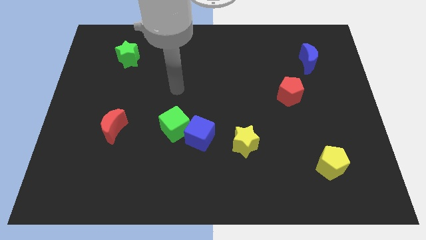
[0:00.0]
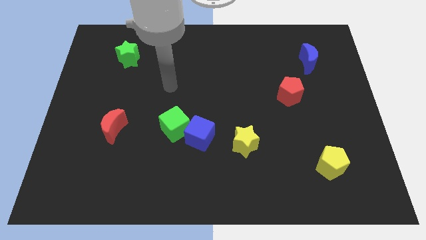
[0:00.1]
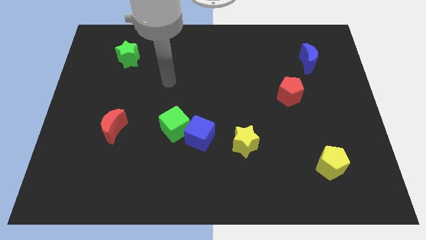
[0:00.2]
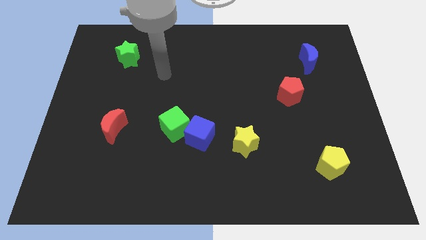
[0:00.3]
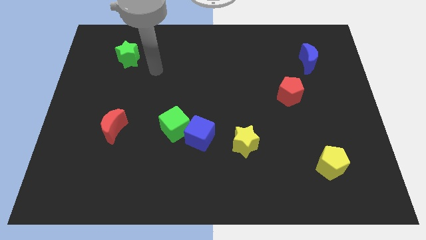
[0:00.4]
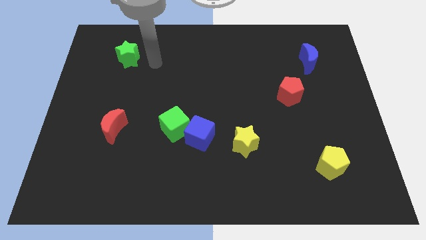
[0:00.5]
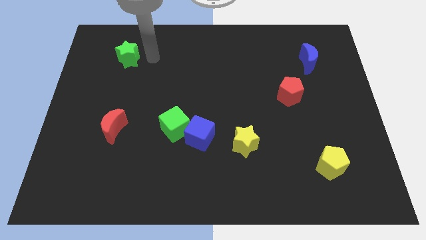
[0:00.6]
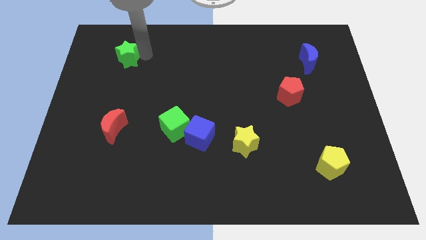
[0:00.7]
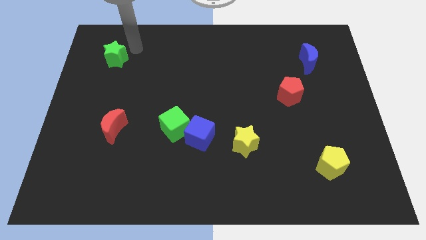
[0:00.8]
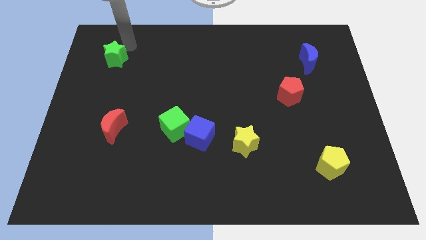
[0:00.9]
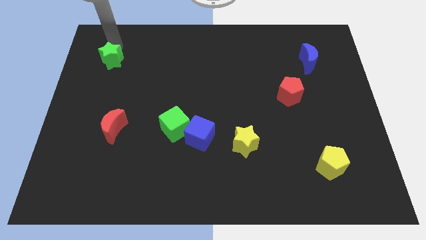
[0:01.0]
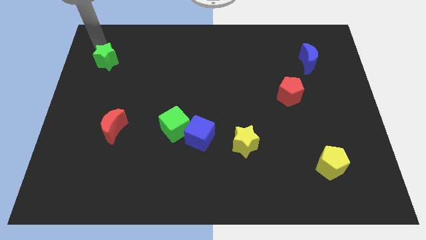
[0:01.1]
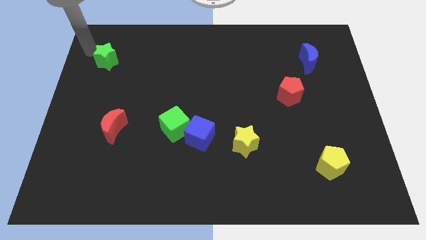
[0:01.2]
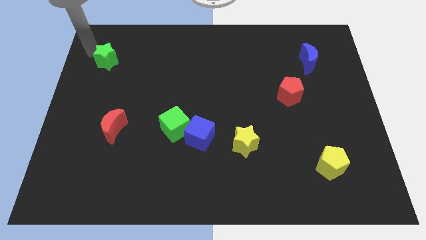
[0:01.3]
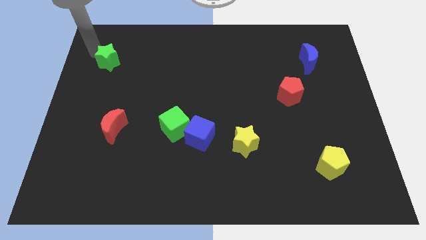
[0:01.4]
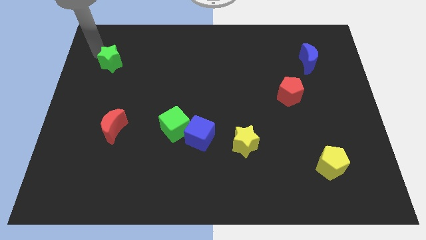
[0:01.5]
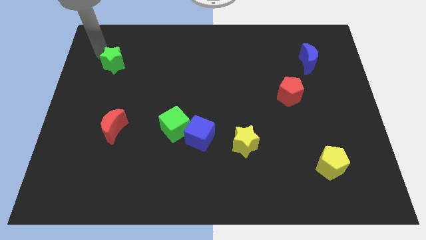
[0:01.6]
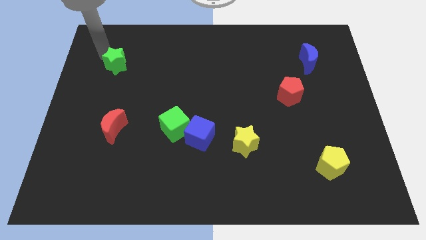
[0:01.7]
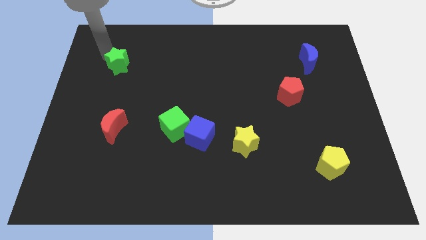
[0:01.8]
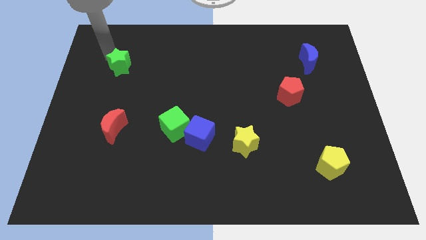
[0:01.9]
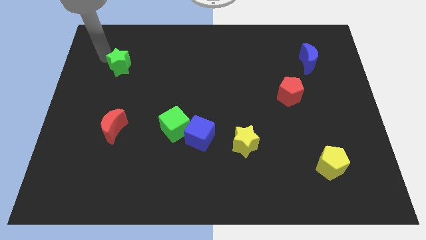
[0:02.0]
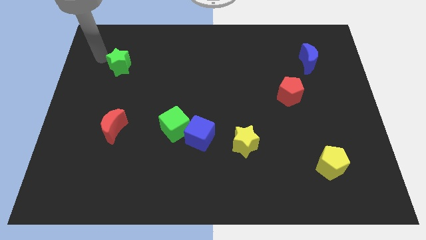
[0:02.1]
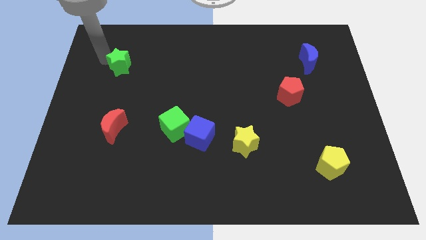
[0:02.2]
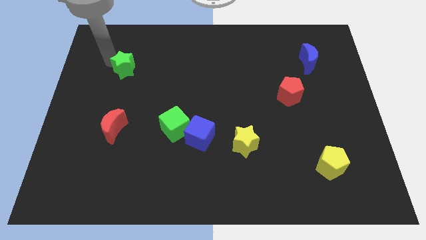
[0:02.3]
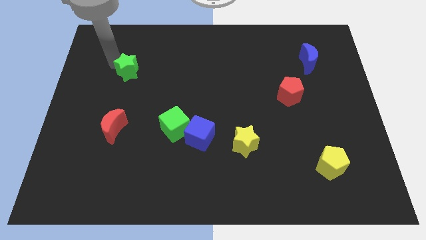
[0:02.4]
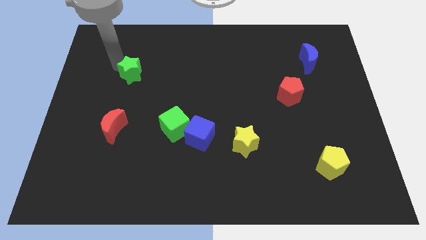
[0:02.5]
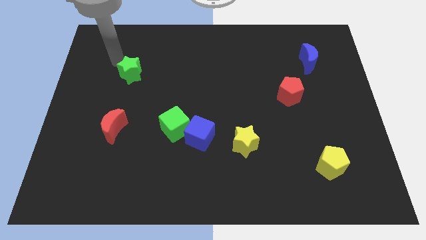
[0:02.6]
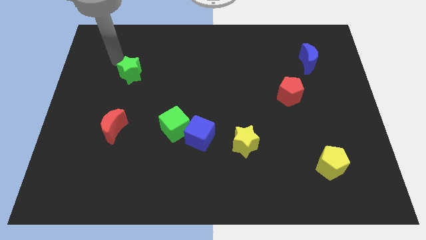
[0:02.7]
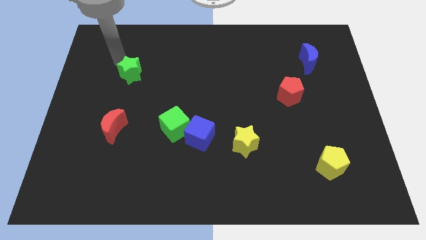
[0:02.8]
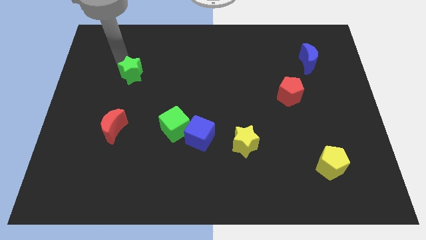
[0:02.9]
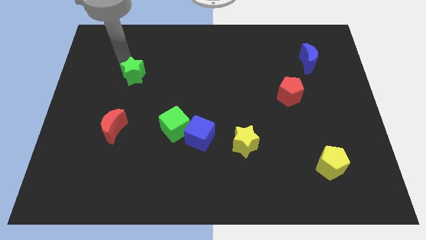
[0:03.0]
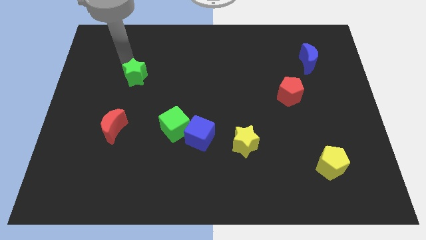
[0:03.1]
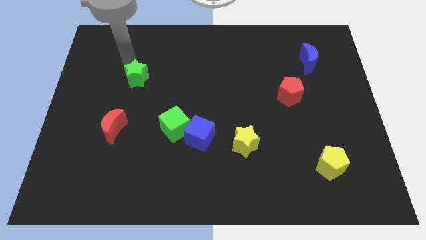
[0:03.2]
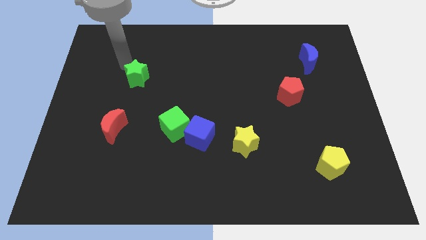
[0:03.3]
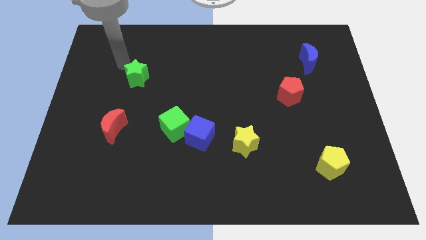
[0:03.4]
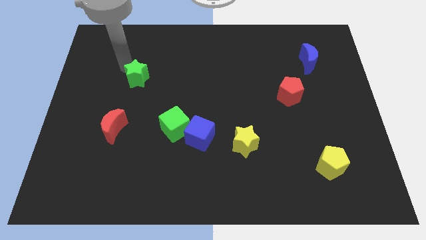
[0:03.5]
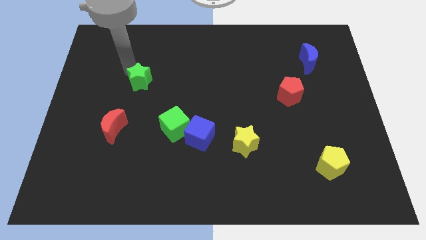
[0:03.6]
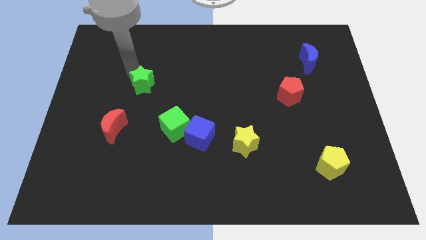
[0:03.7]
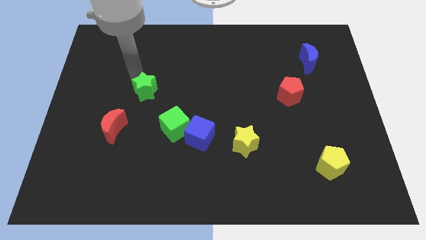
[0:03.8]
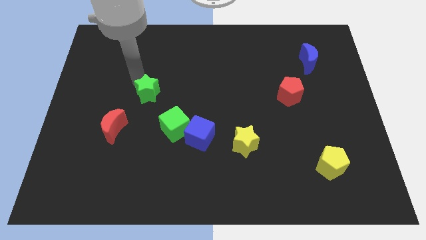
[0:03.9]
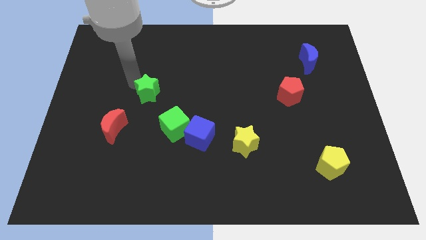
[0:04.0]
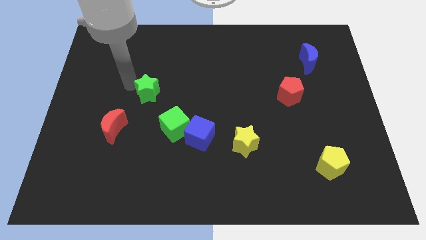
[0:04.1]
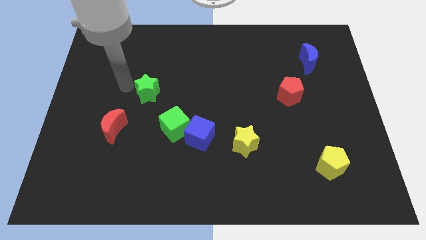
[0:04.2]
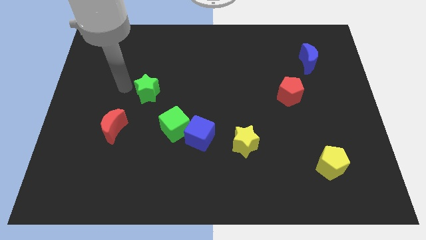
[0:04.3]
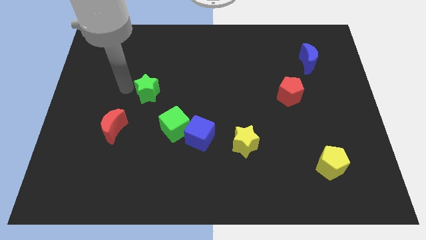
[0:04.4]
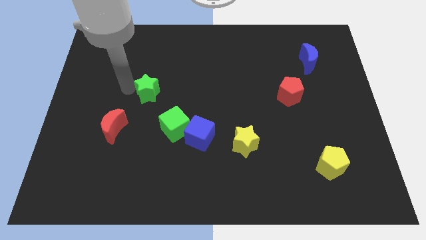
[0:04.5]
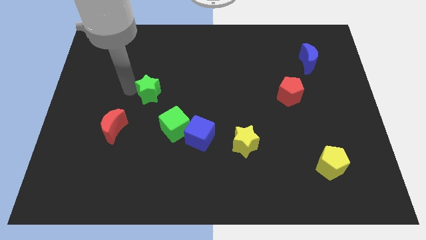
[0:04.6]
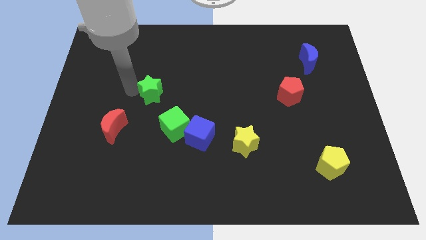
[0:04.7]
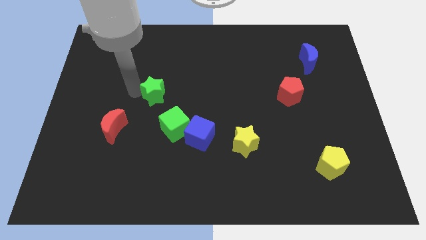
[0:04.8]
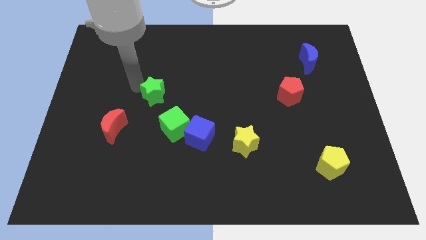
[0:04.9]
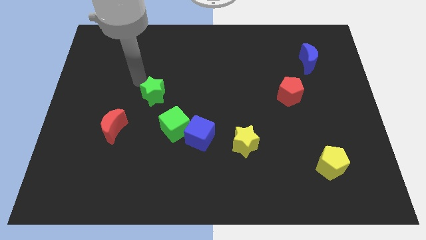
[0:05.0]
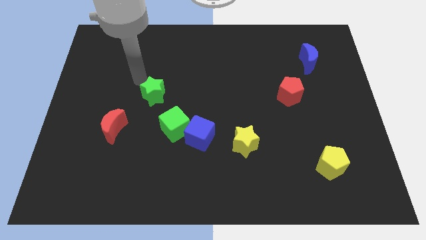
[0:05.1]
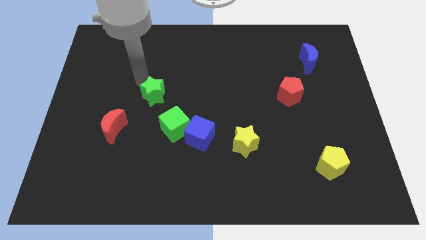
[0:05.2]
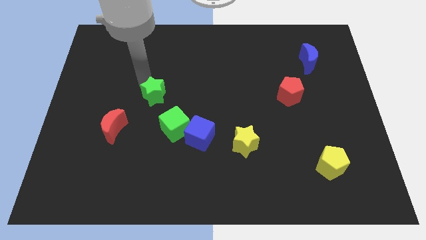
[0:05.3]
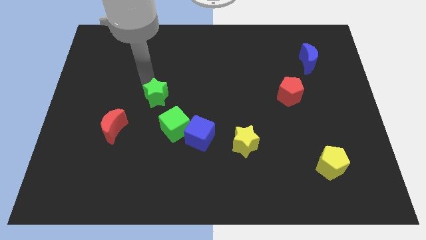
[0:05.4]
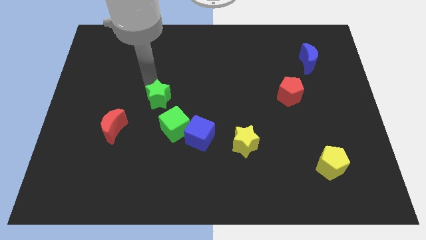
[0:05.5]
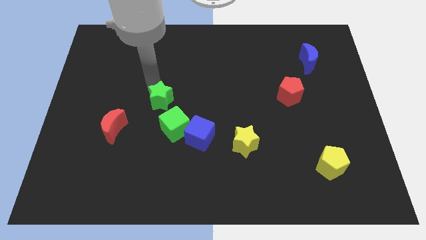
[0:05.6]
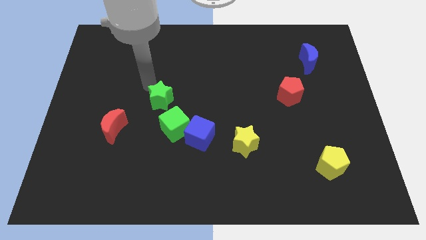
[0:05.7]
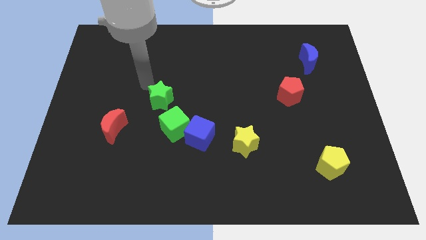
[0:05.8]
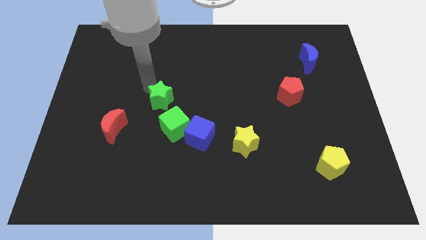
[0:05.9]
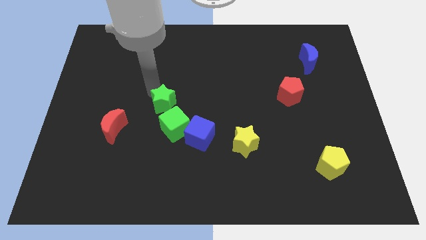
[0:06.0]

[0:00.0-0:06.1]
put the green star diagonally up and to the left of the blue cube

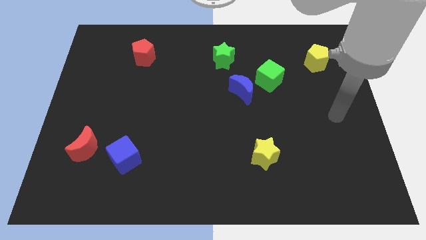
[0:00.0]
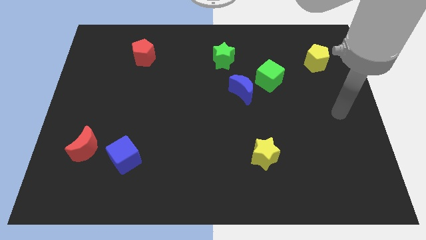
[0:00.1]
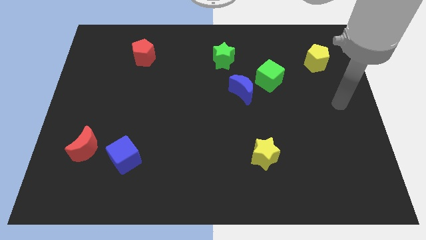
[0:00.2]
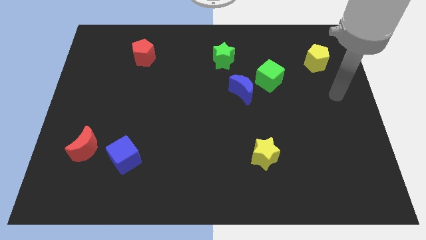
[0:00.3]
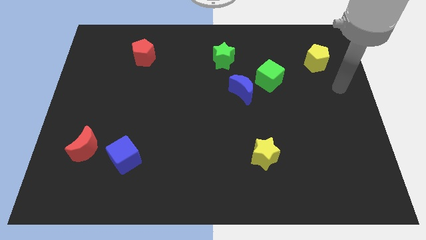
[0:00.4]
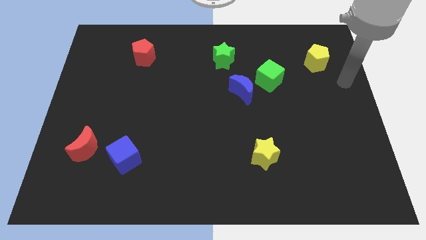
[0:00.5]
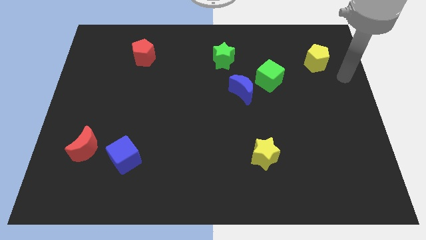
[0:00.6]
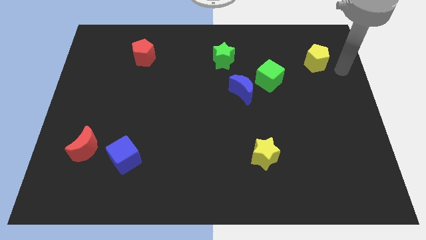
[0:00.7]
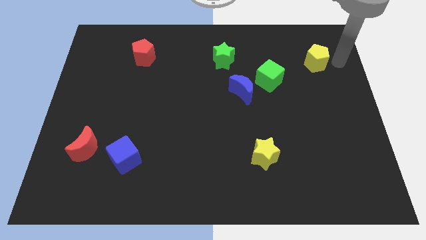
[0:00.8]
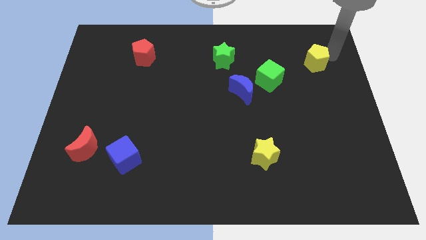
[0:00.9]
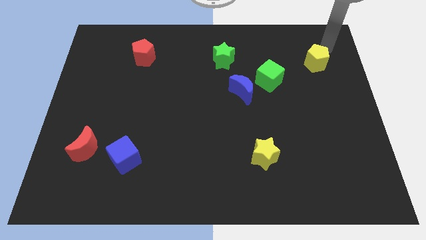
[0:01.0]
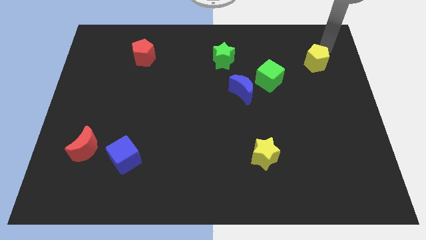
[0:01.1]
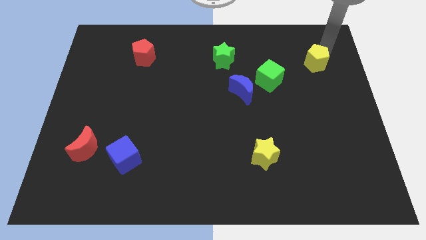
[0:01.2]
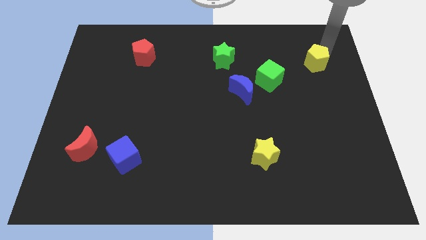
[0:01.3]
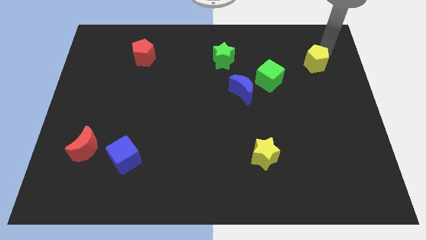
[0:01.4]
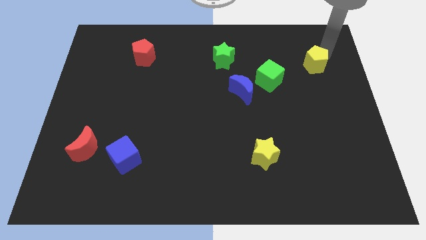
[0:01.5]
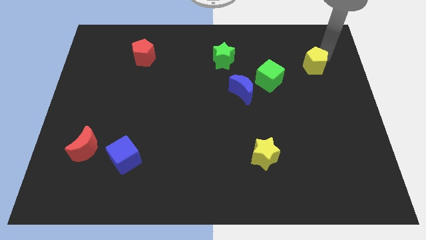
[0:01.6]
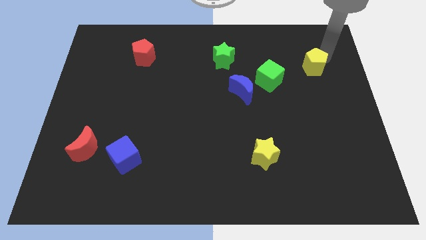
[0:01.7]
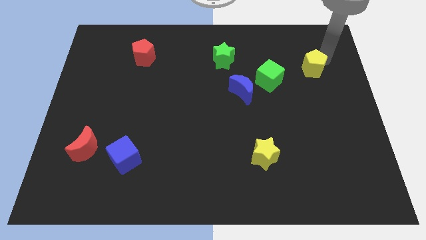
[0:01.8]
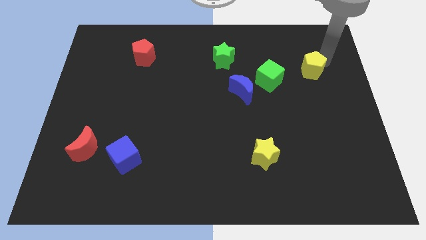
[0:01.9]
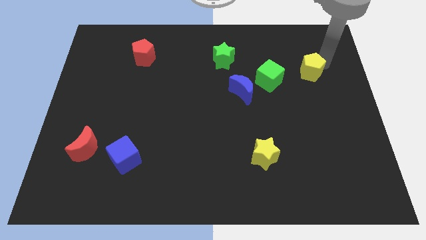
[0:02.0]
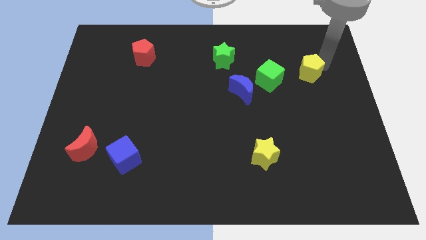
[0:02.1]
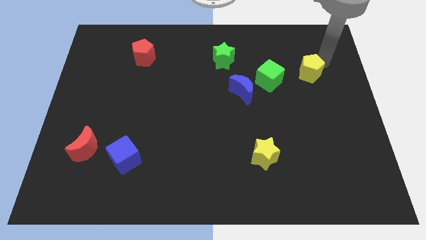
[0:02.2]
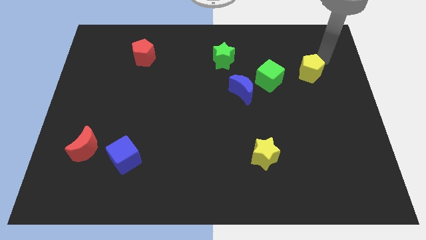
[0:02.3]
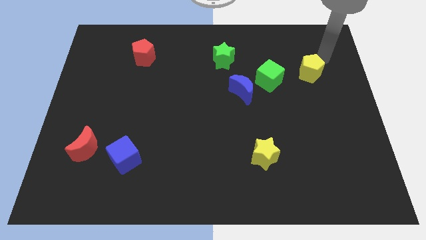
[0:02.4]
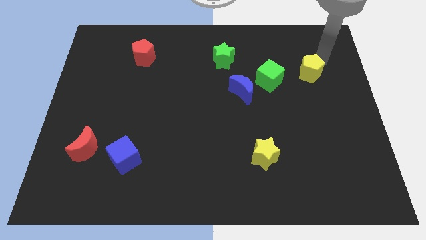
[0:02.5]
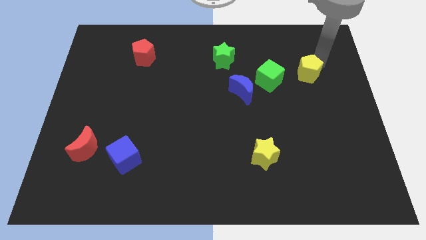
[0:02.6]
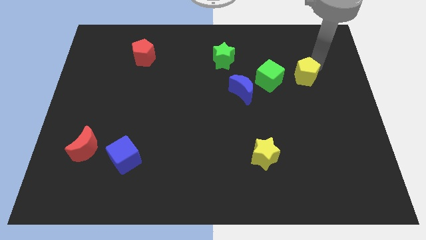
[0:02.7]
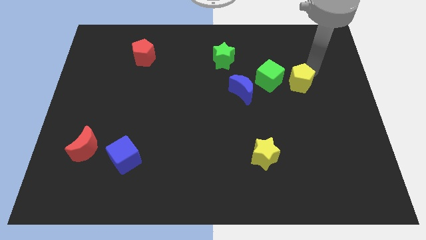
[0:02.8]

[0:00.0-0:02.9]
push the yellow pentagon to the right of the blue moon
